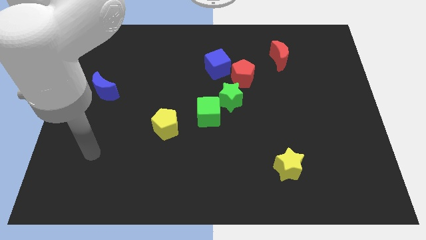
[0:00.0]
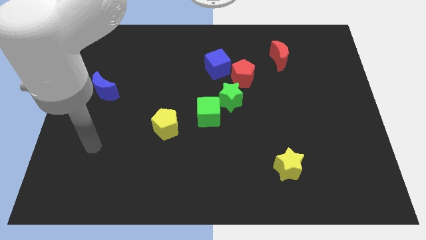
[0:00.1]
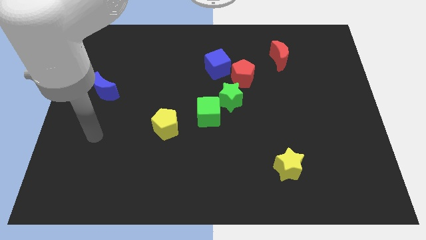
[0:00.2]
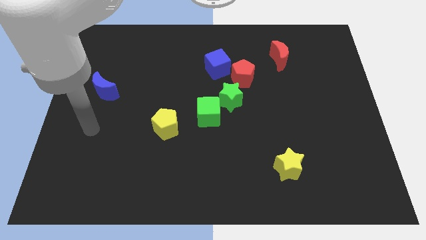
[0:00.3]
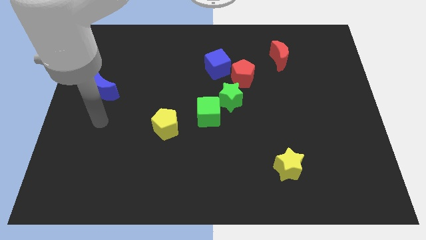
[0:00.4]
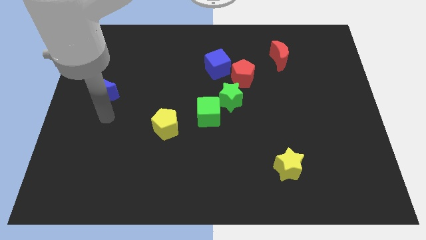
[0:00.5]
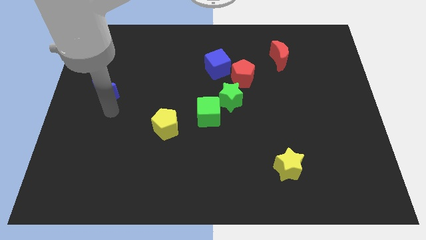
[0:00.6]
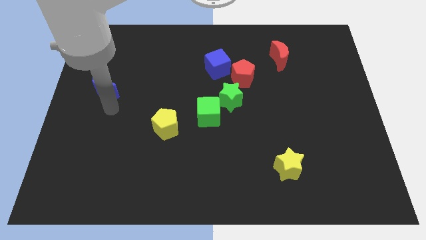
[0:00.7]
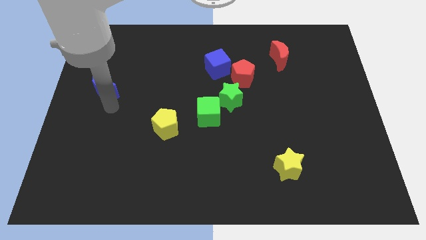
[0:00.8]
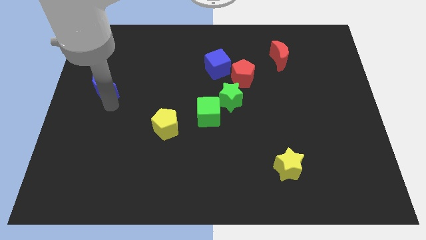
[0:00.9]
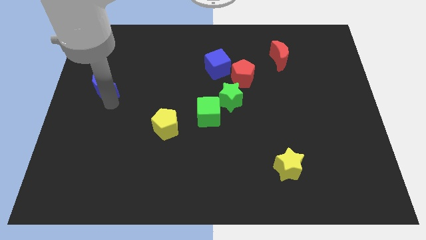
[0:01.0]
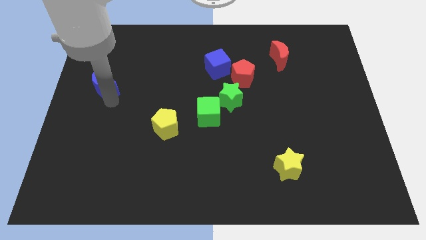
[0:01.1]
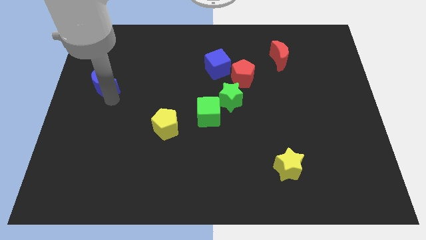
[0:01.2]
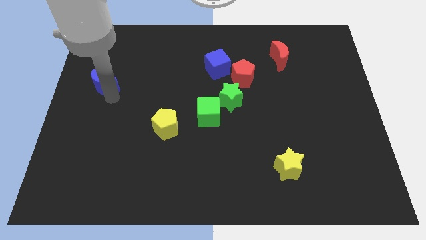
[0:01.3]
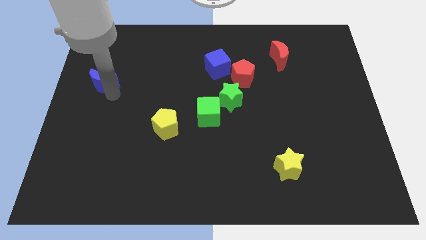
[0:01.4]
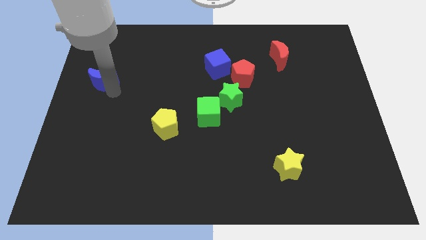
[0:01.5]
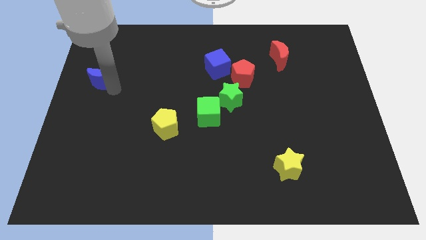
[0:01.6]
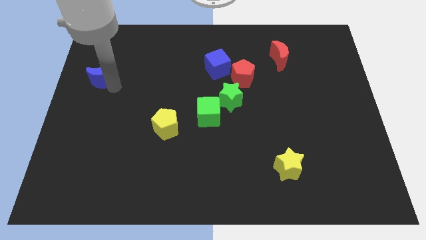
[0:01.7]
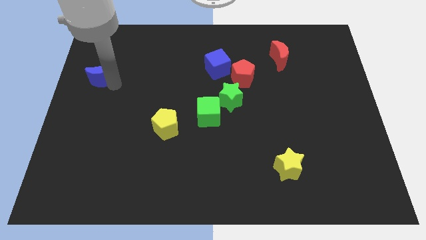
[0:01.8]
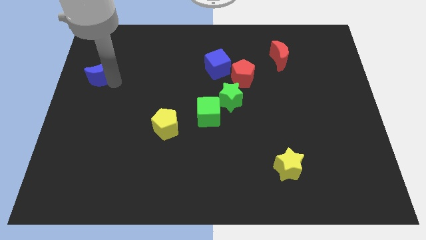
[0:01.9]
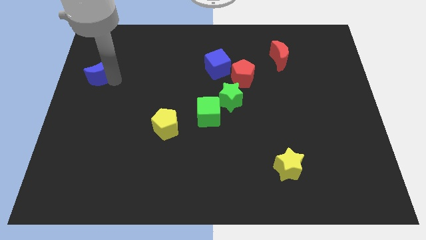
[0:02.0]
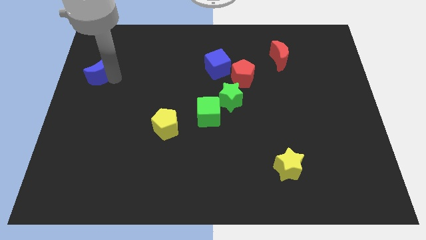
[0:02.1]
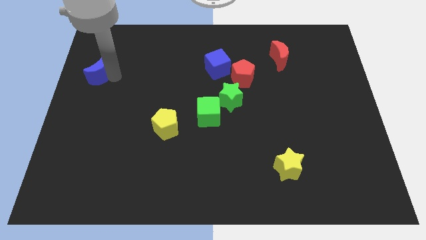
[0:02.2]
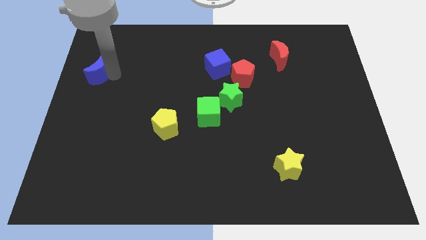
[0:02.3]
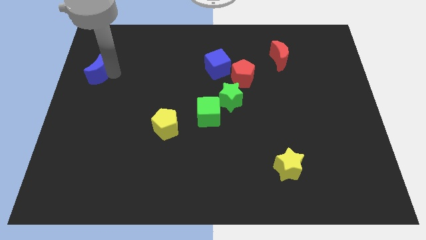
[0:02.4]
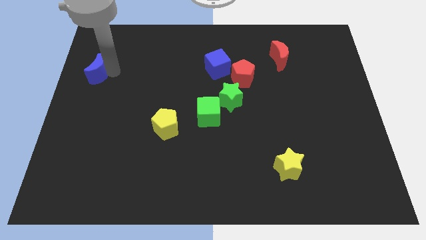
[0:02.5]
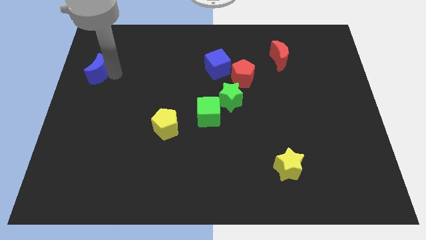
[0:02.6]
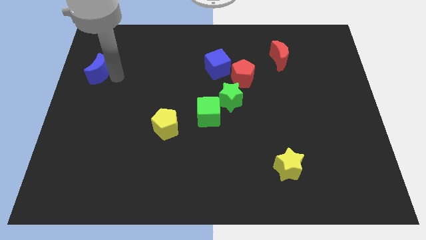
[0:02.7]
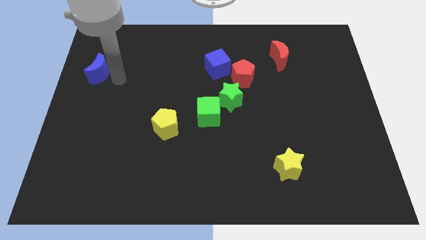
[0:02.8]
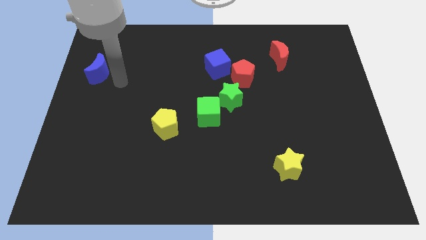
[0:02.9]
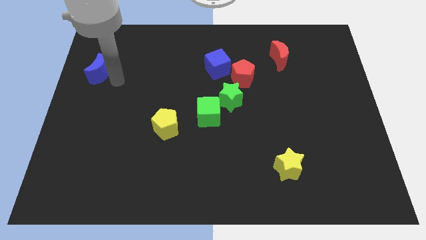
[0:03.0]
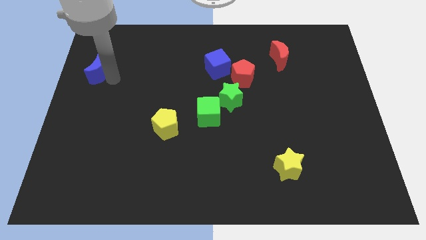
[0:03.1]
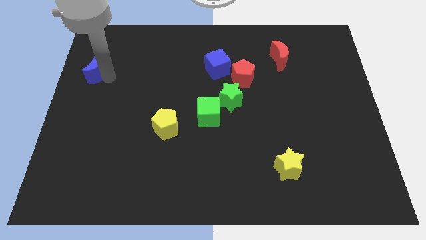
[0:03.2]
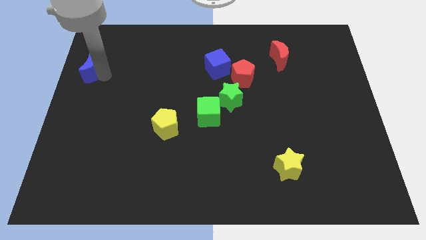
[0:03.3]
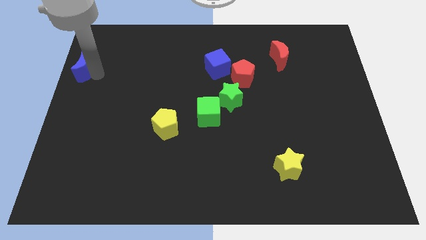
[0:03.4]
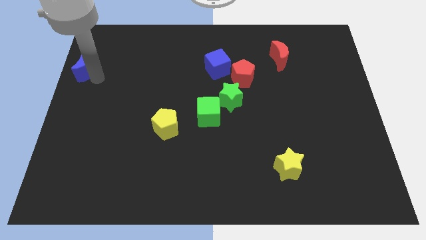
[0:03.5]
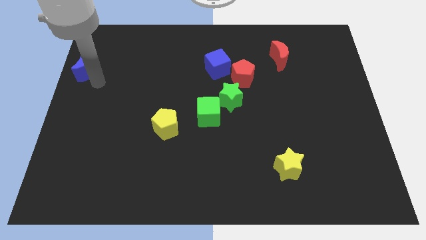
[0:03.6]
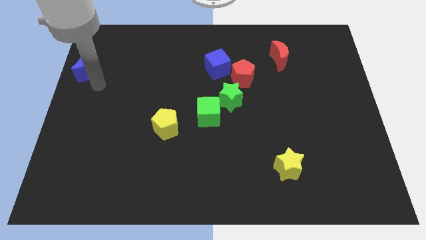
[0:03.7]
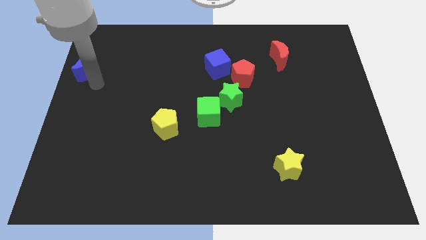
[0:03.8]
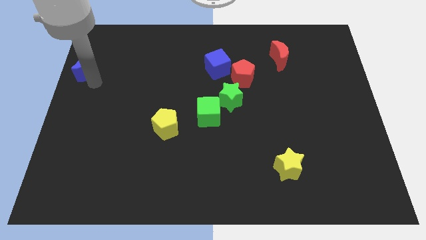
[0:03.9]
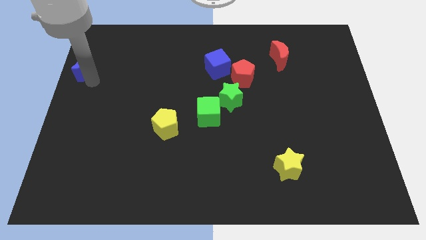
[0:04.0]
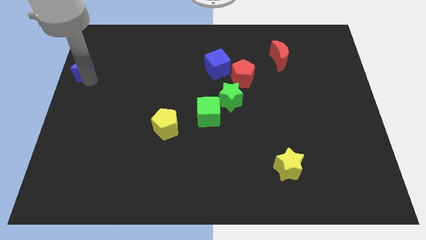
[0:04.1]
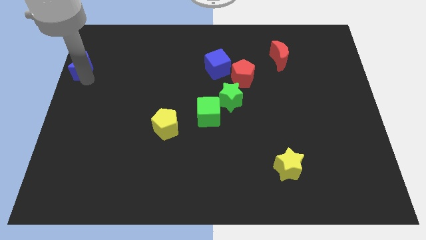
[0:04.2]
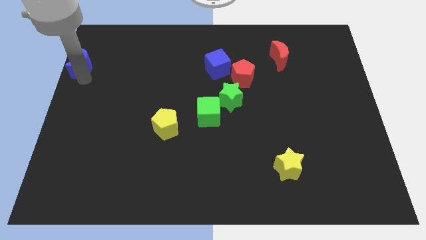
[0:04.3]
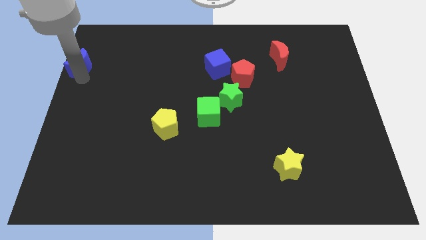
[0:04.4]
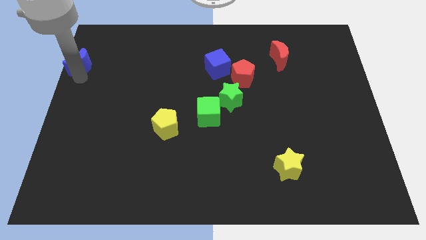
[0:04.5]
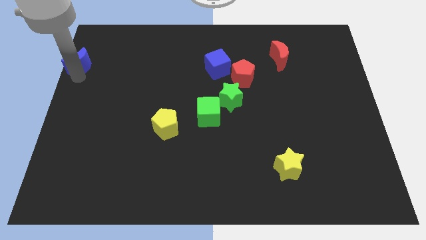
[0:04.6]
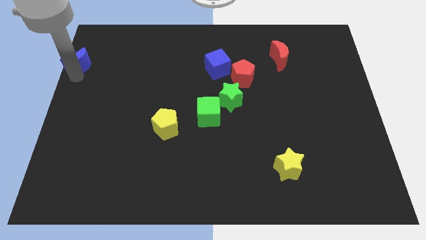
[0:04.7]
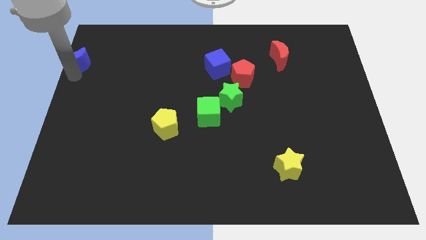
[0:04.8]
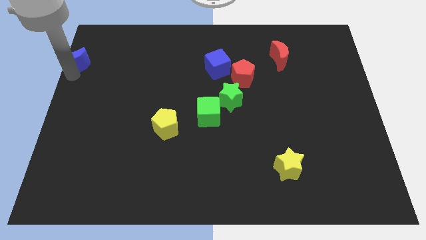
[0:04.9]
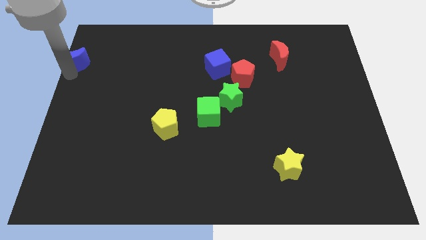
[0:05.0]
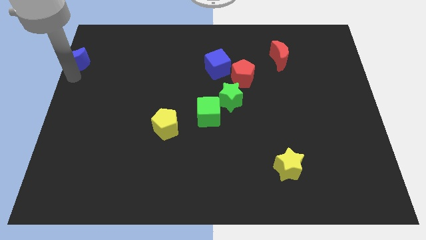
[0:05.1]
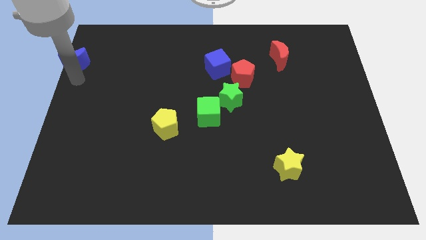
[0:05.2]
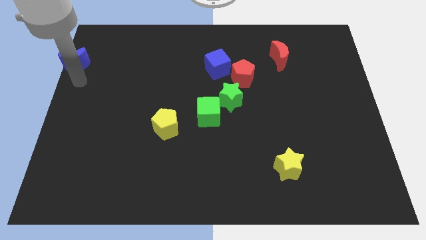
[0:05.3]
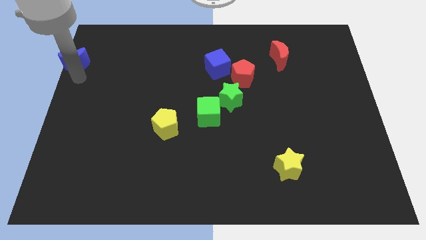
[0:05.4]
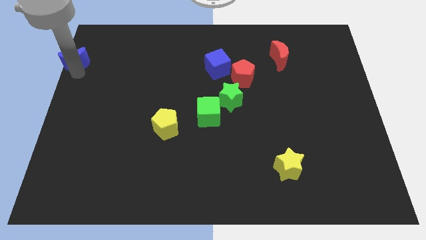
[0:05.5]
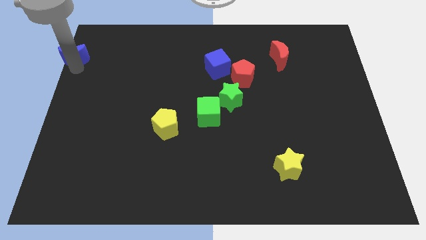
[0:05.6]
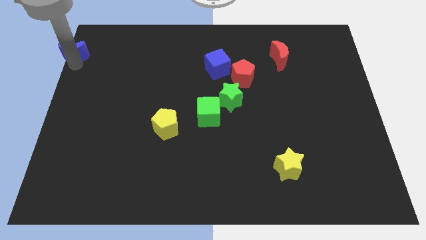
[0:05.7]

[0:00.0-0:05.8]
put the blue moon to the top left of the board
